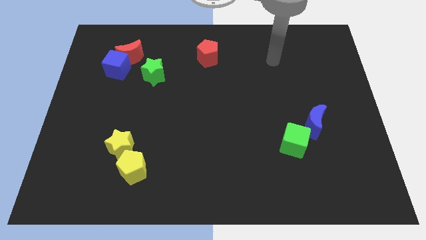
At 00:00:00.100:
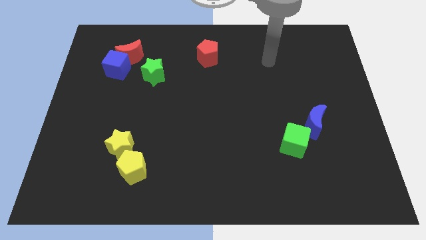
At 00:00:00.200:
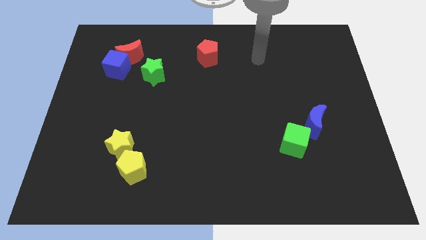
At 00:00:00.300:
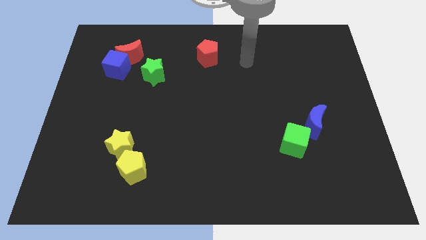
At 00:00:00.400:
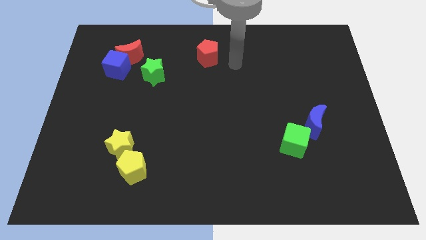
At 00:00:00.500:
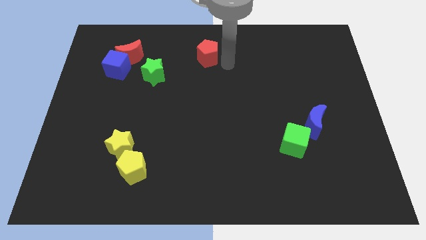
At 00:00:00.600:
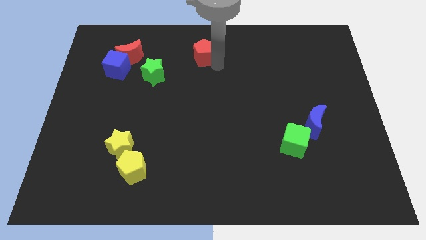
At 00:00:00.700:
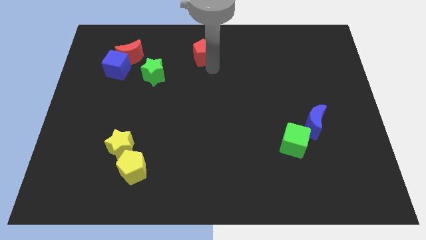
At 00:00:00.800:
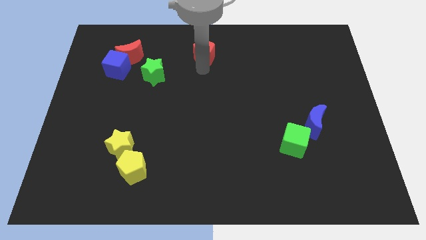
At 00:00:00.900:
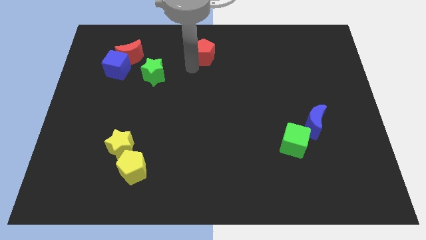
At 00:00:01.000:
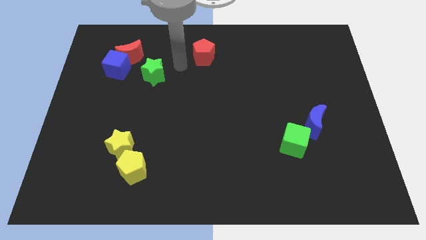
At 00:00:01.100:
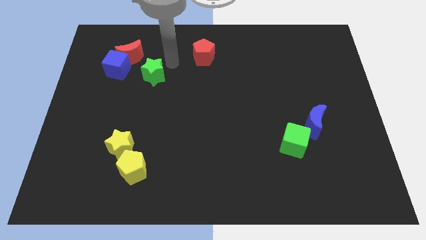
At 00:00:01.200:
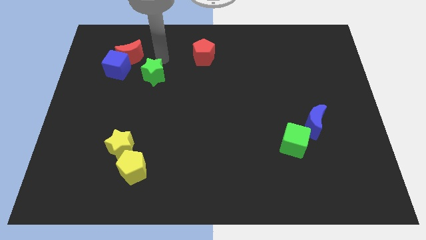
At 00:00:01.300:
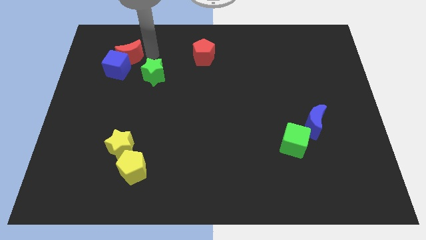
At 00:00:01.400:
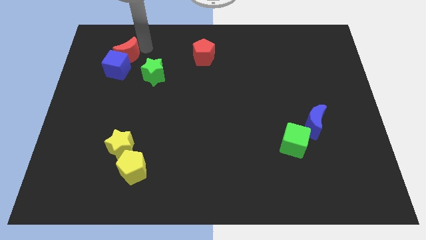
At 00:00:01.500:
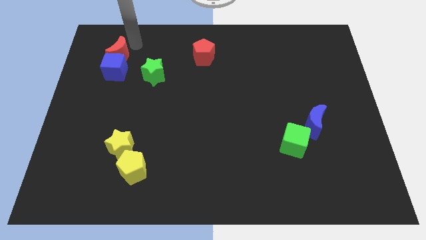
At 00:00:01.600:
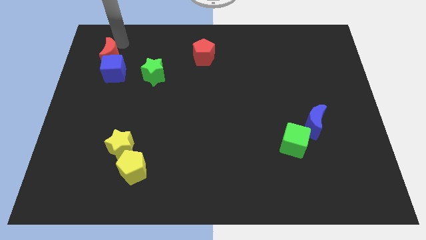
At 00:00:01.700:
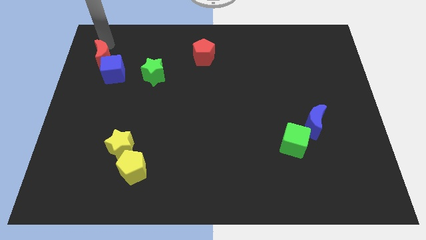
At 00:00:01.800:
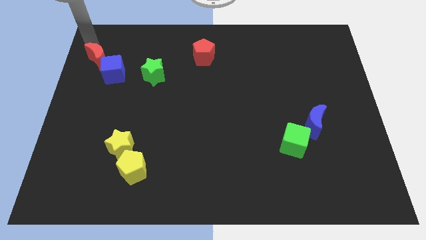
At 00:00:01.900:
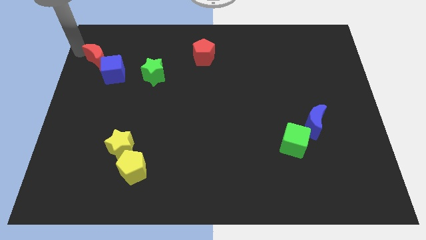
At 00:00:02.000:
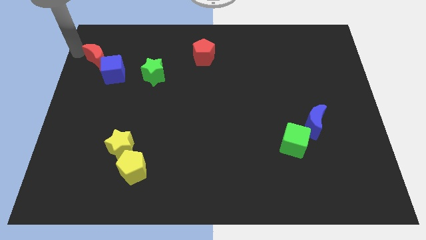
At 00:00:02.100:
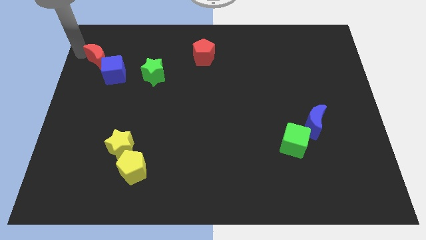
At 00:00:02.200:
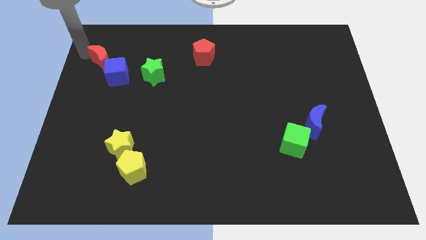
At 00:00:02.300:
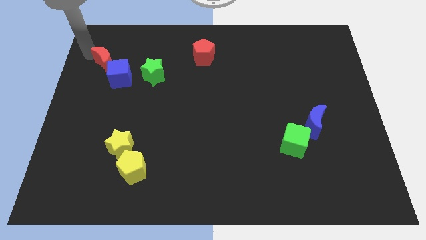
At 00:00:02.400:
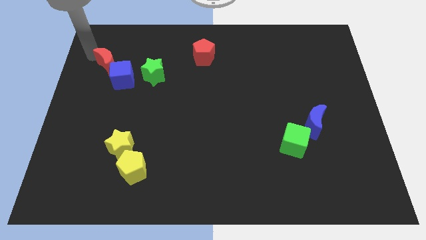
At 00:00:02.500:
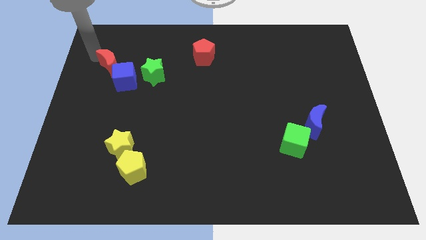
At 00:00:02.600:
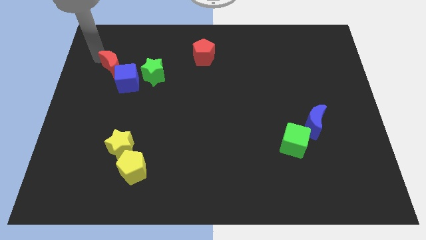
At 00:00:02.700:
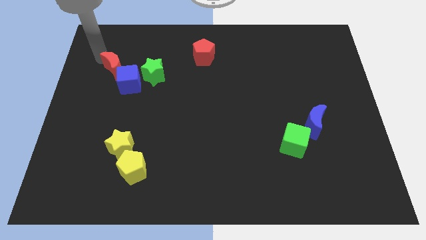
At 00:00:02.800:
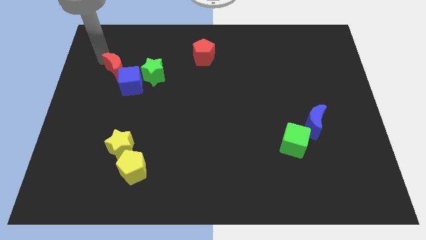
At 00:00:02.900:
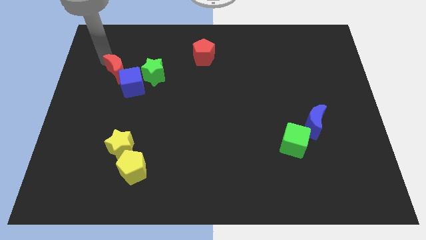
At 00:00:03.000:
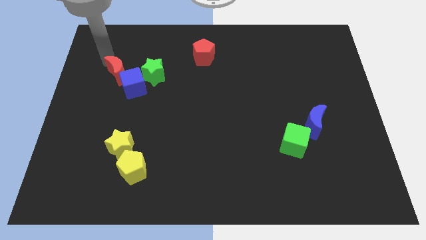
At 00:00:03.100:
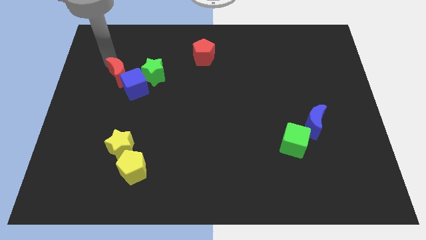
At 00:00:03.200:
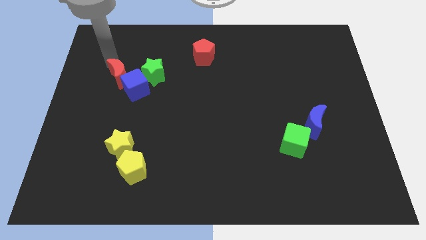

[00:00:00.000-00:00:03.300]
push the red moon a little down

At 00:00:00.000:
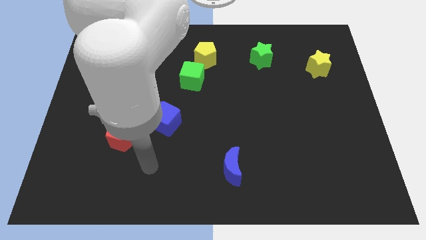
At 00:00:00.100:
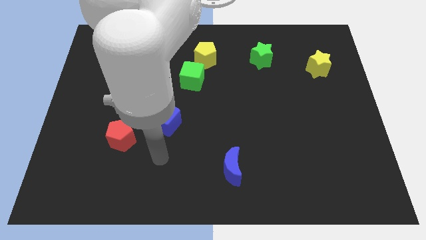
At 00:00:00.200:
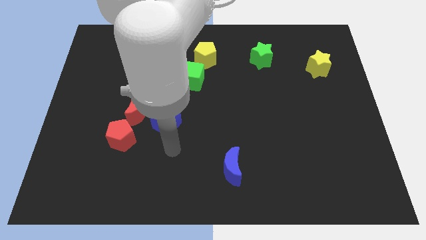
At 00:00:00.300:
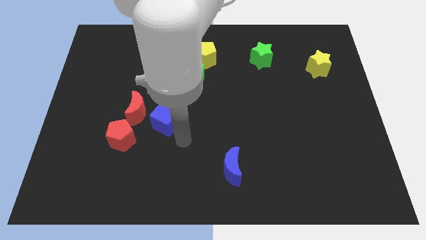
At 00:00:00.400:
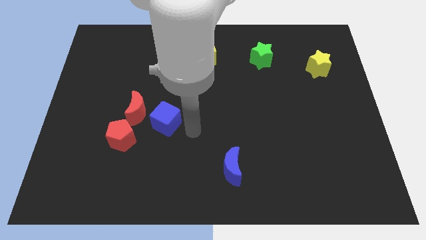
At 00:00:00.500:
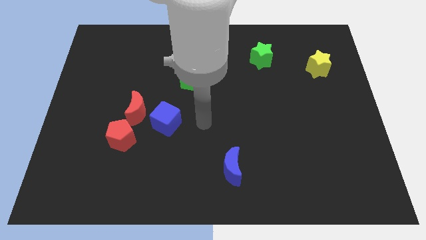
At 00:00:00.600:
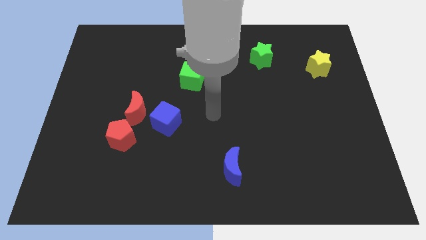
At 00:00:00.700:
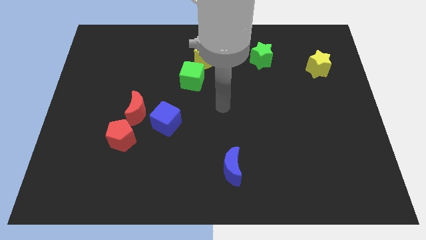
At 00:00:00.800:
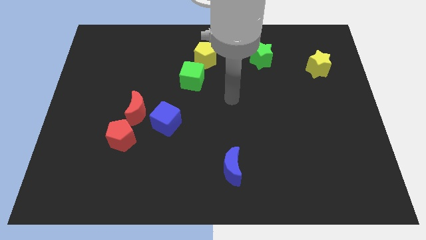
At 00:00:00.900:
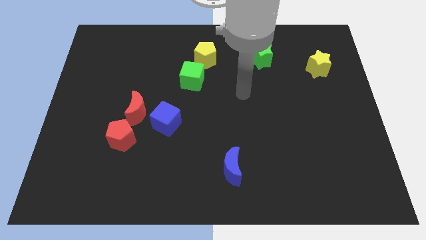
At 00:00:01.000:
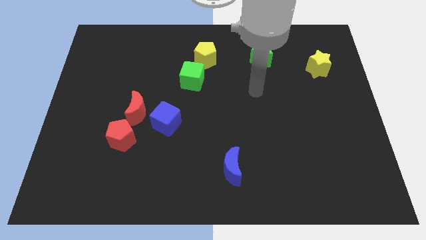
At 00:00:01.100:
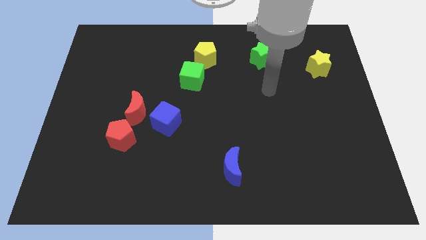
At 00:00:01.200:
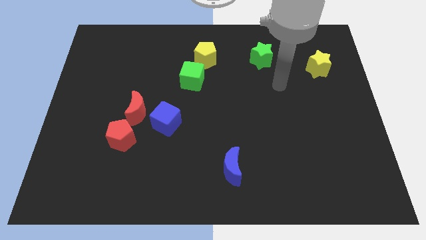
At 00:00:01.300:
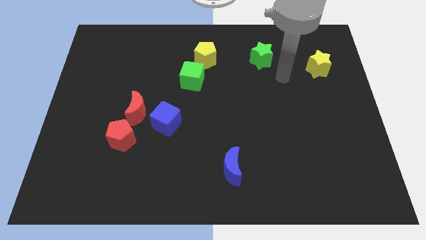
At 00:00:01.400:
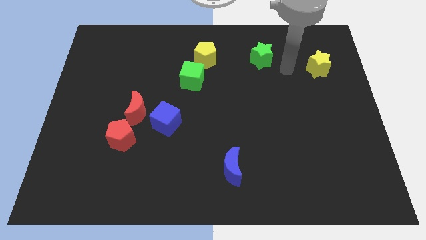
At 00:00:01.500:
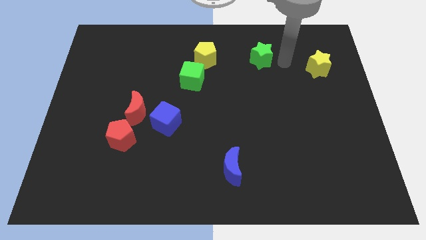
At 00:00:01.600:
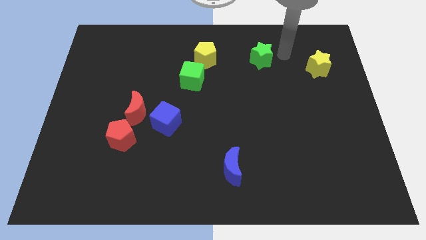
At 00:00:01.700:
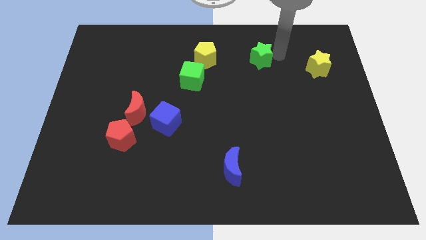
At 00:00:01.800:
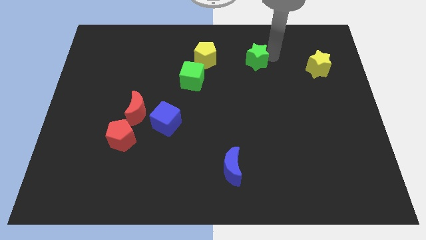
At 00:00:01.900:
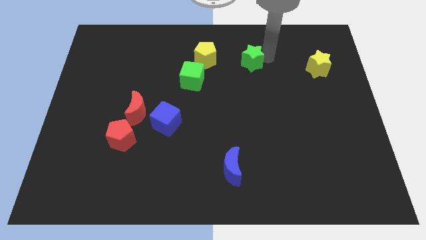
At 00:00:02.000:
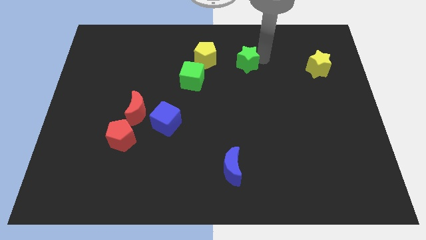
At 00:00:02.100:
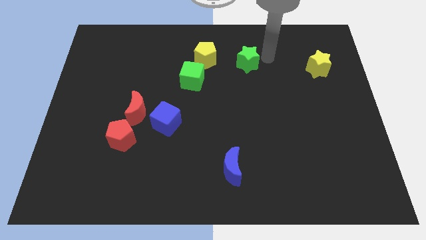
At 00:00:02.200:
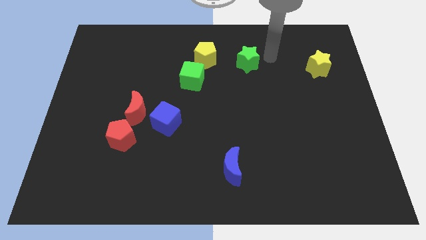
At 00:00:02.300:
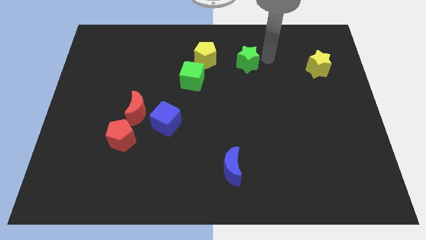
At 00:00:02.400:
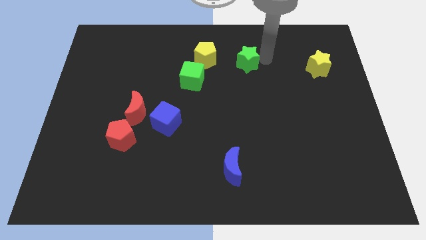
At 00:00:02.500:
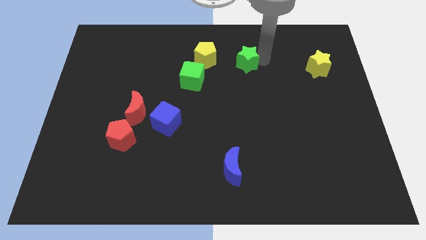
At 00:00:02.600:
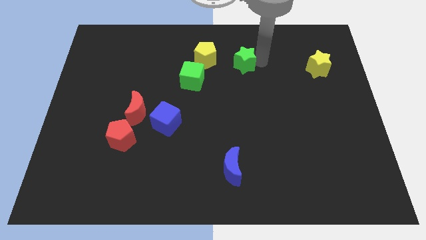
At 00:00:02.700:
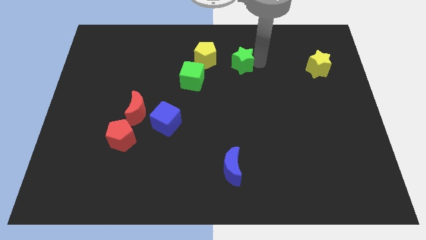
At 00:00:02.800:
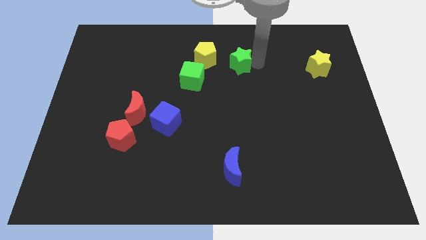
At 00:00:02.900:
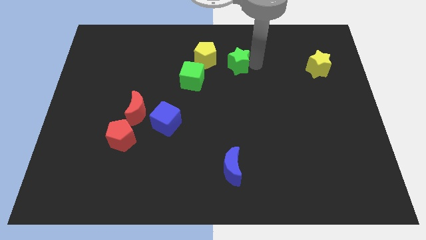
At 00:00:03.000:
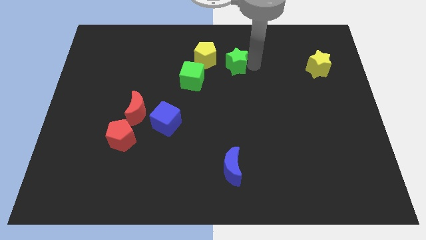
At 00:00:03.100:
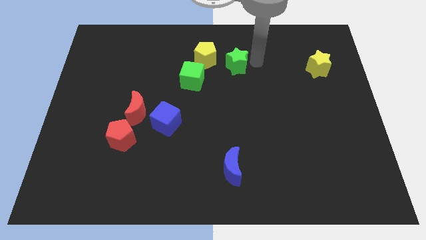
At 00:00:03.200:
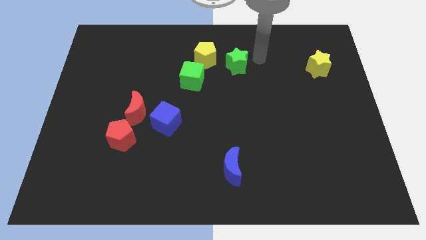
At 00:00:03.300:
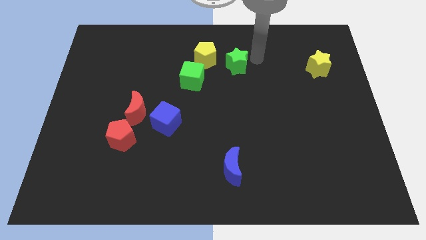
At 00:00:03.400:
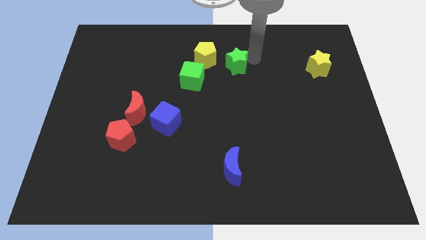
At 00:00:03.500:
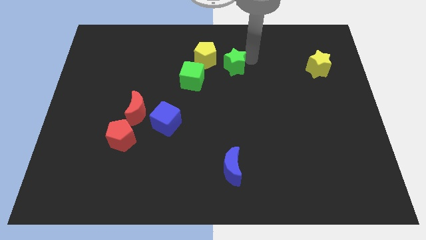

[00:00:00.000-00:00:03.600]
move the green star to the left somewhat

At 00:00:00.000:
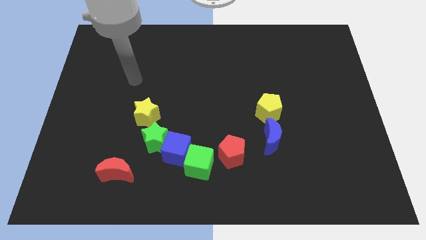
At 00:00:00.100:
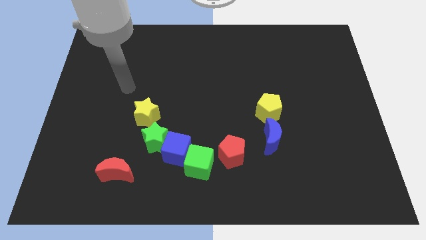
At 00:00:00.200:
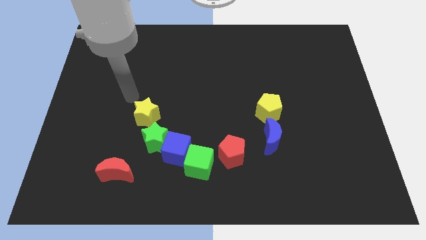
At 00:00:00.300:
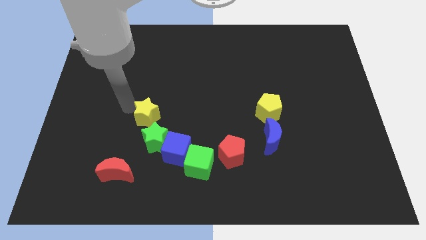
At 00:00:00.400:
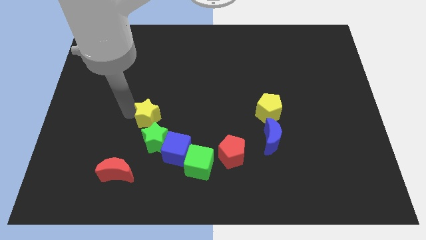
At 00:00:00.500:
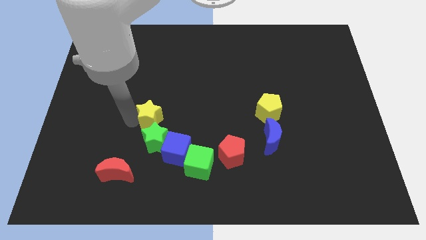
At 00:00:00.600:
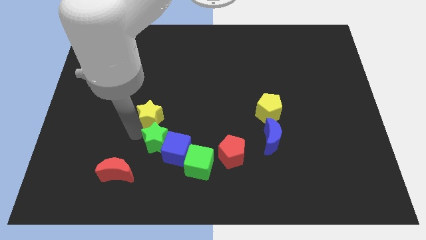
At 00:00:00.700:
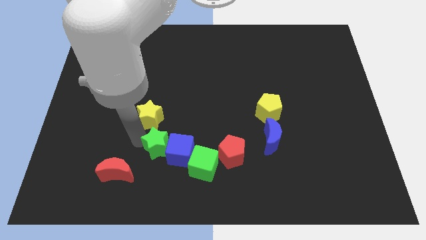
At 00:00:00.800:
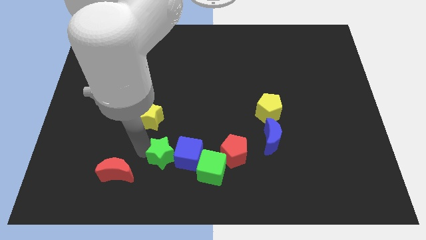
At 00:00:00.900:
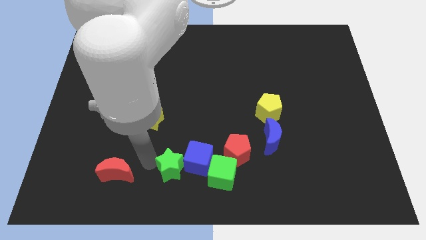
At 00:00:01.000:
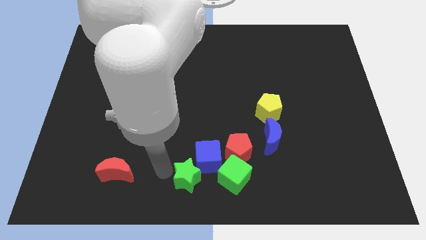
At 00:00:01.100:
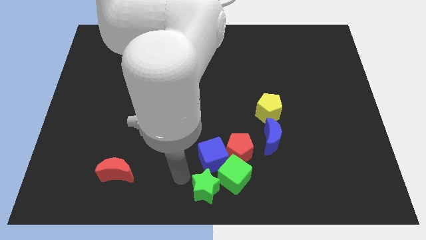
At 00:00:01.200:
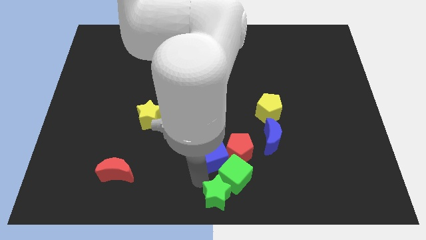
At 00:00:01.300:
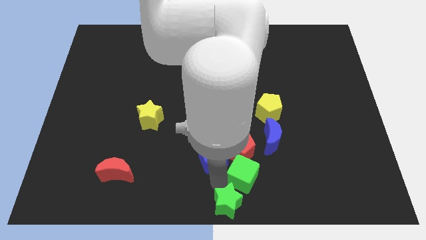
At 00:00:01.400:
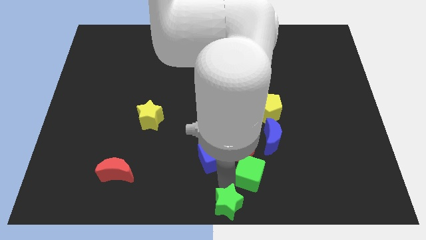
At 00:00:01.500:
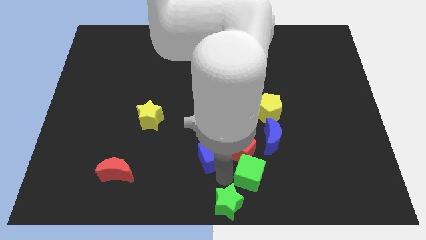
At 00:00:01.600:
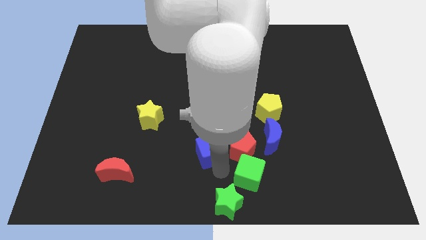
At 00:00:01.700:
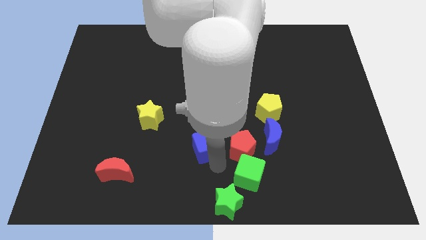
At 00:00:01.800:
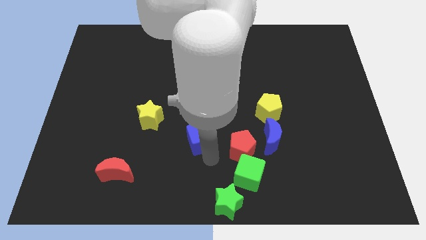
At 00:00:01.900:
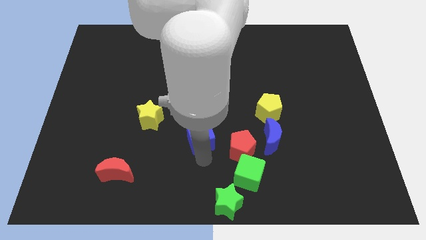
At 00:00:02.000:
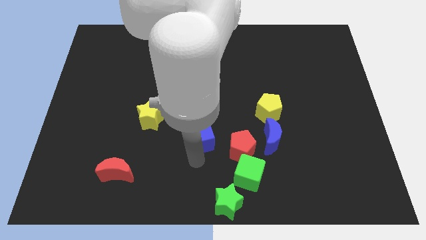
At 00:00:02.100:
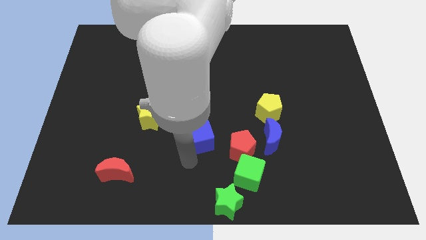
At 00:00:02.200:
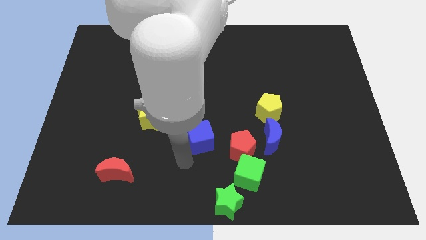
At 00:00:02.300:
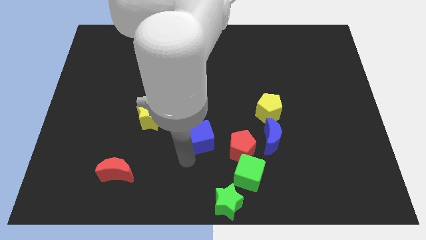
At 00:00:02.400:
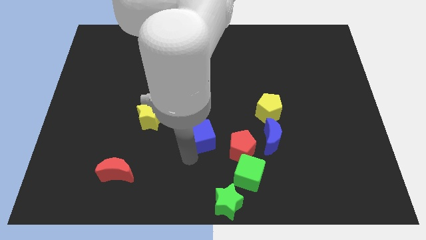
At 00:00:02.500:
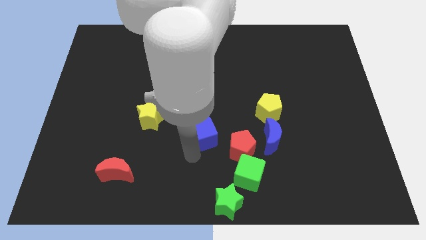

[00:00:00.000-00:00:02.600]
slightly push the blue cube upwards and then right
